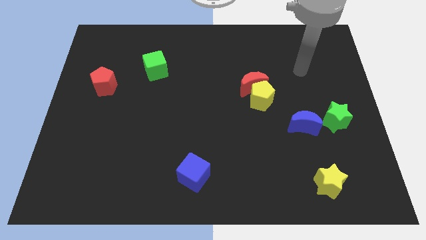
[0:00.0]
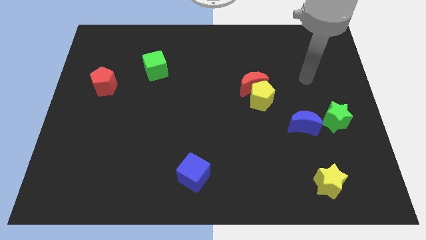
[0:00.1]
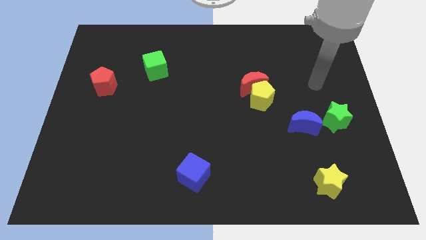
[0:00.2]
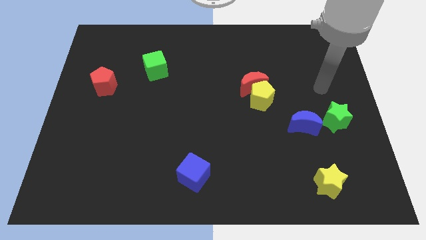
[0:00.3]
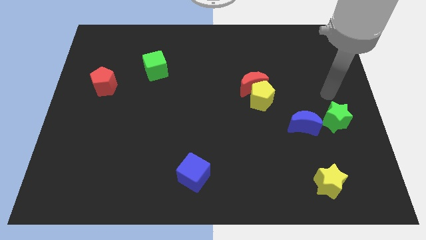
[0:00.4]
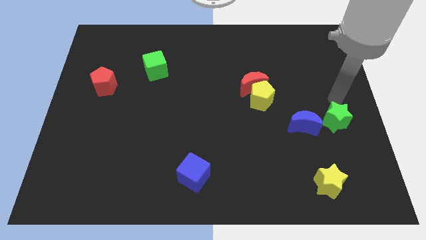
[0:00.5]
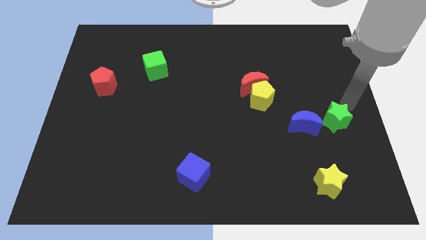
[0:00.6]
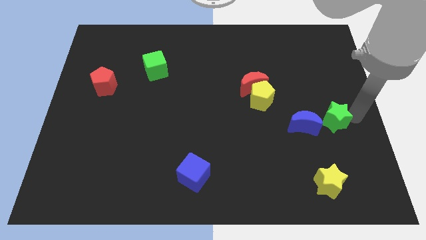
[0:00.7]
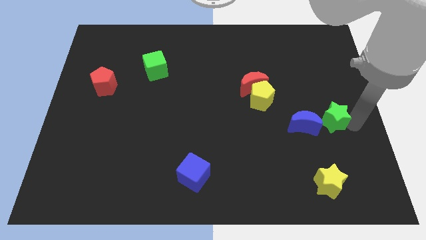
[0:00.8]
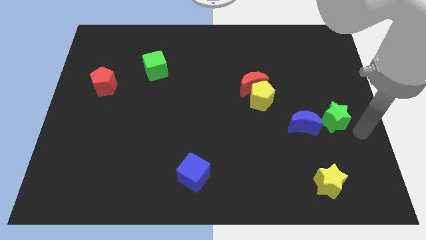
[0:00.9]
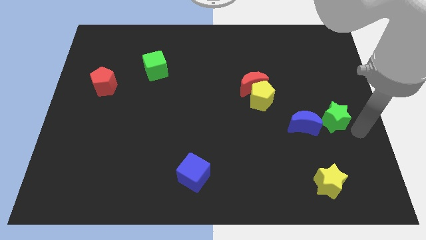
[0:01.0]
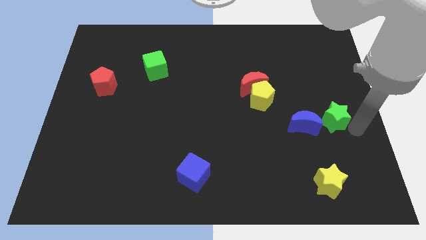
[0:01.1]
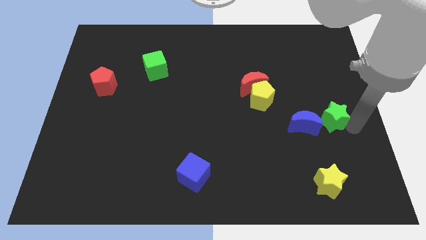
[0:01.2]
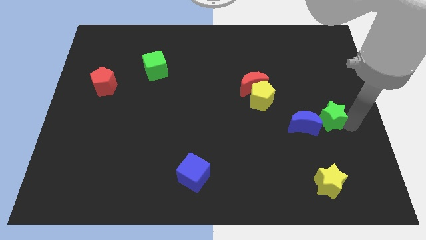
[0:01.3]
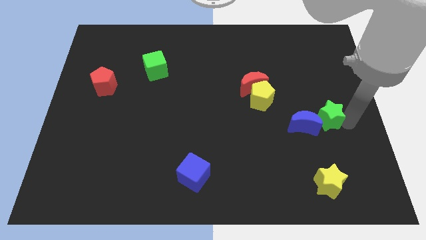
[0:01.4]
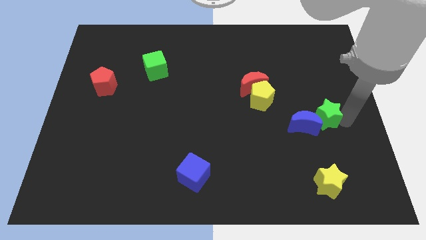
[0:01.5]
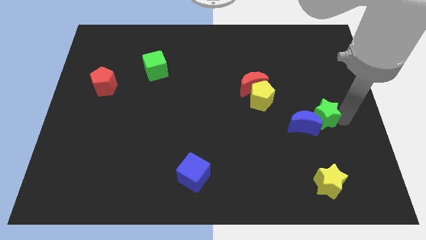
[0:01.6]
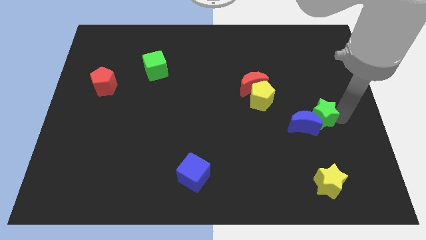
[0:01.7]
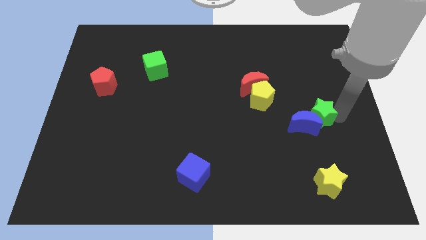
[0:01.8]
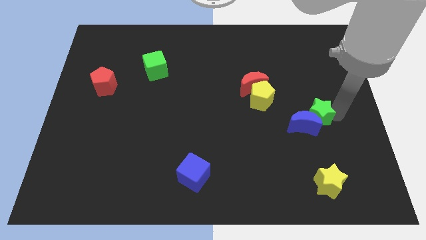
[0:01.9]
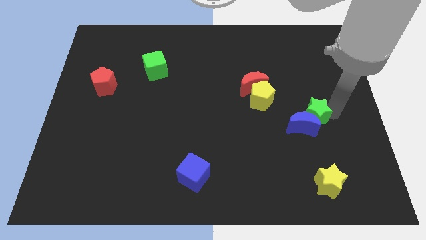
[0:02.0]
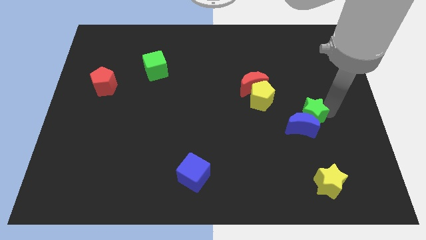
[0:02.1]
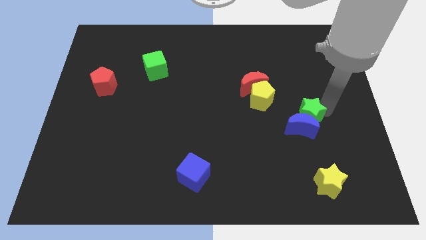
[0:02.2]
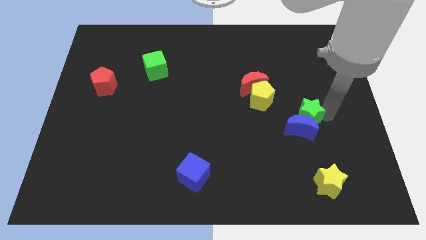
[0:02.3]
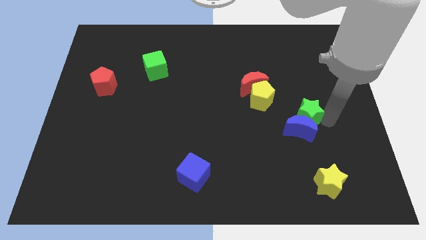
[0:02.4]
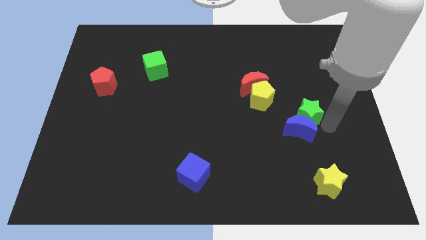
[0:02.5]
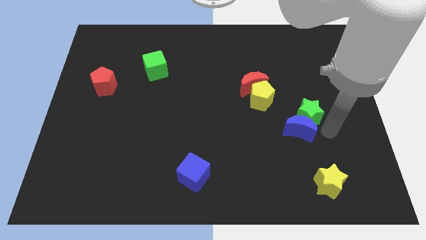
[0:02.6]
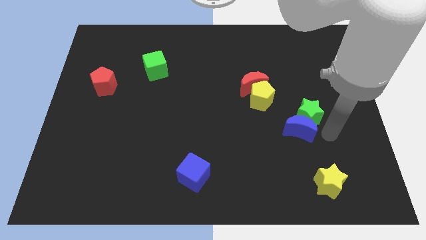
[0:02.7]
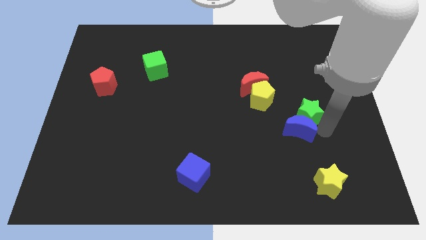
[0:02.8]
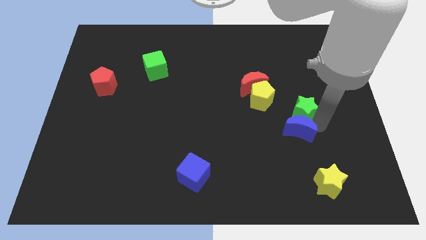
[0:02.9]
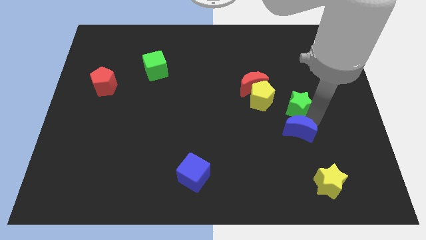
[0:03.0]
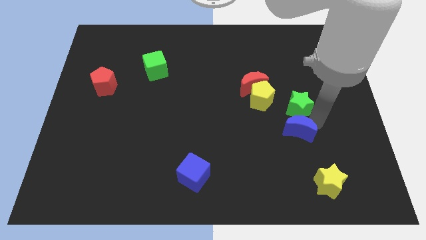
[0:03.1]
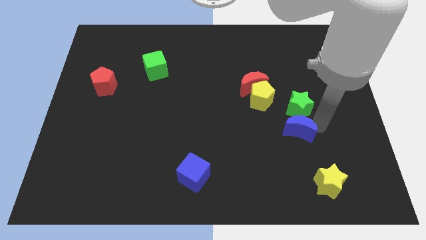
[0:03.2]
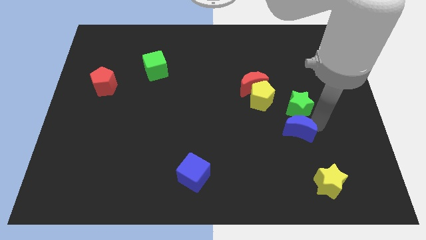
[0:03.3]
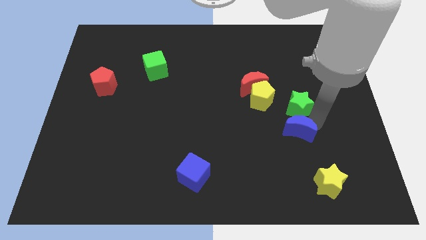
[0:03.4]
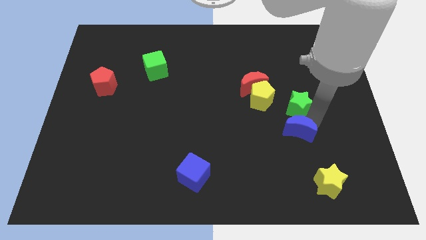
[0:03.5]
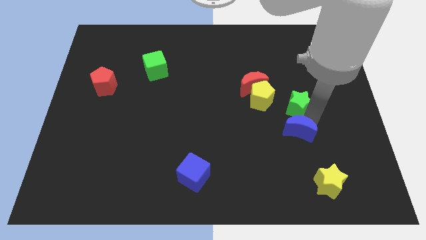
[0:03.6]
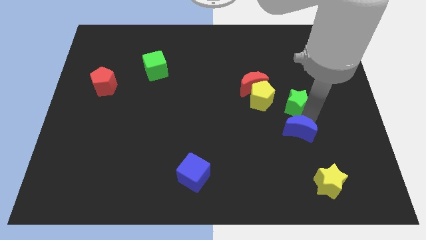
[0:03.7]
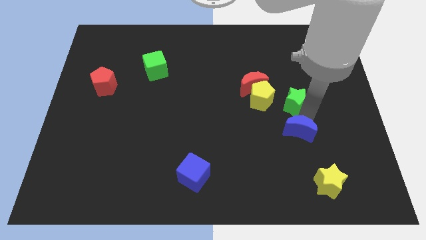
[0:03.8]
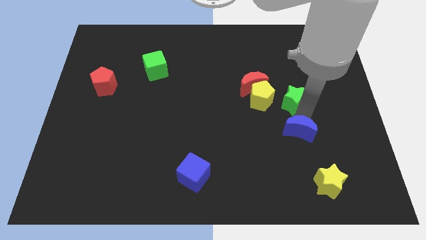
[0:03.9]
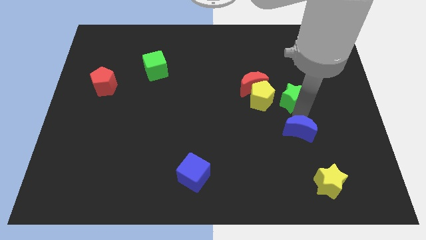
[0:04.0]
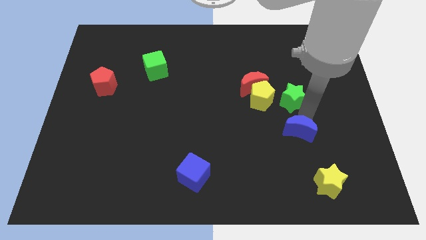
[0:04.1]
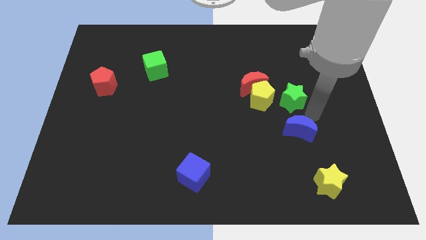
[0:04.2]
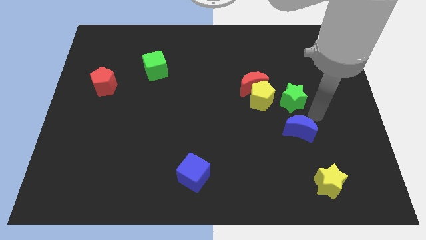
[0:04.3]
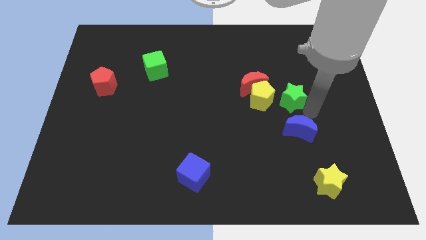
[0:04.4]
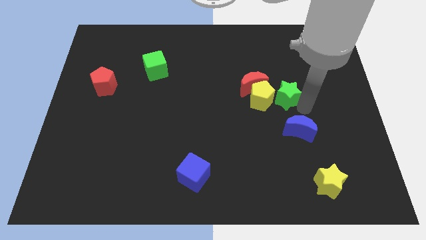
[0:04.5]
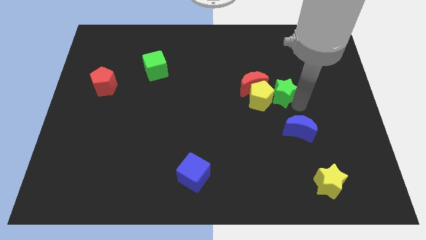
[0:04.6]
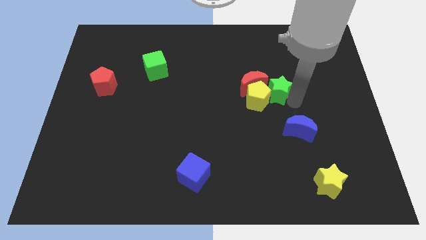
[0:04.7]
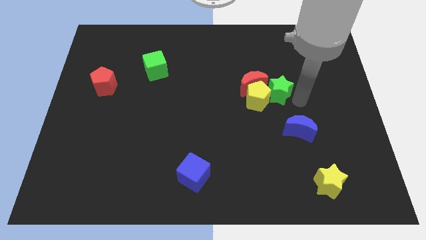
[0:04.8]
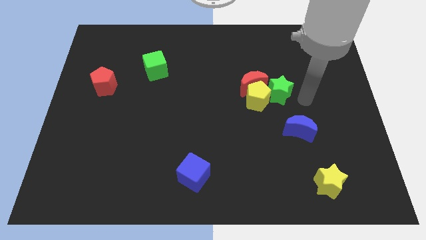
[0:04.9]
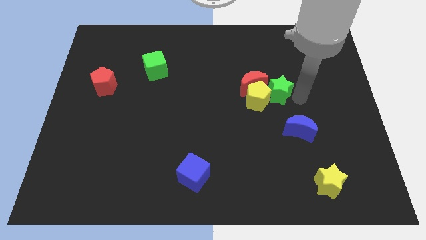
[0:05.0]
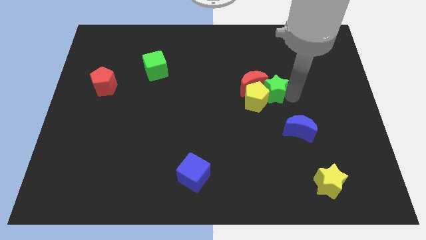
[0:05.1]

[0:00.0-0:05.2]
slide the green star close to the red moon

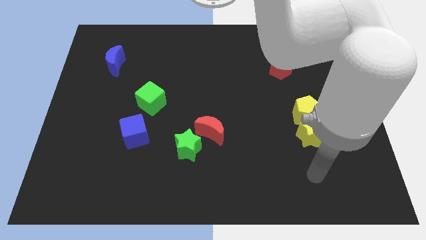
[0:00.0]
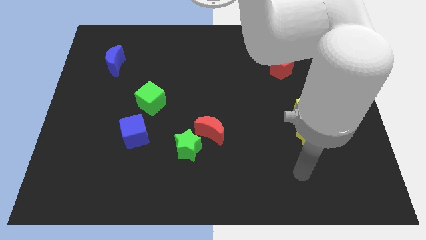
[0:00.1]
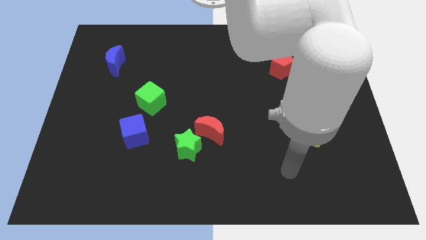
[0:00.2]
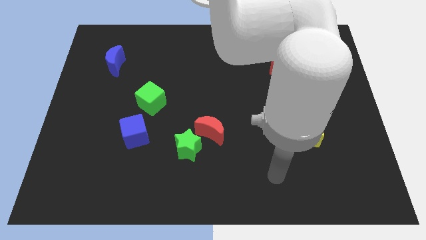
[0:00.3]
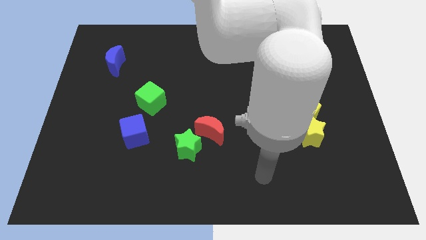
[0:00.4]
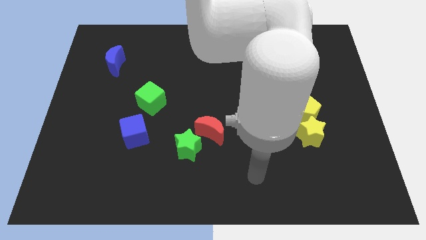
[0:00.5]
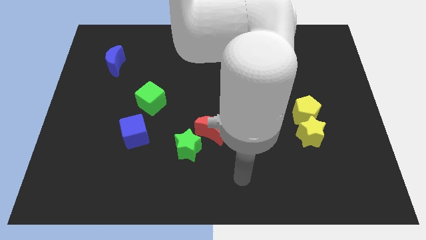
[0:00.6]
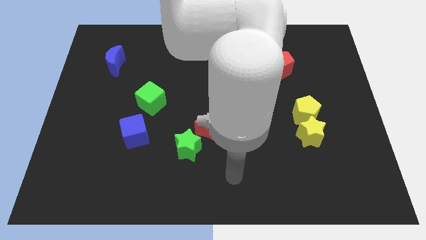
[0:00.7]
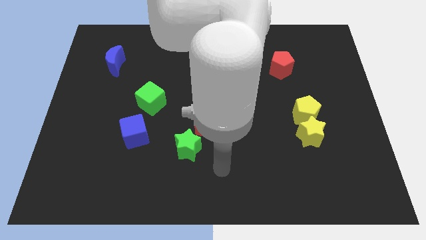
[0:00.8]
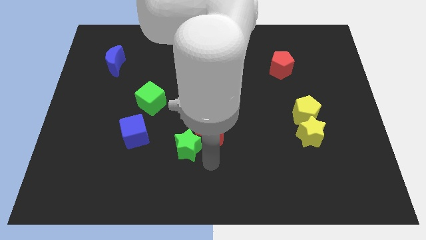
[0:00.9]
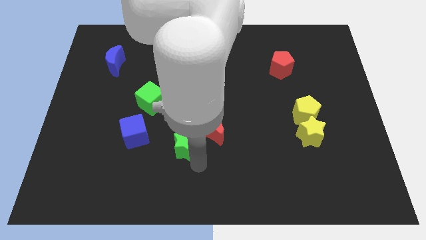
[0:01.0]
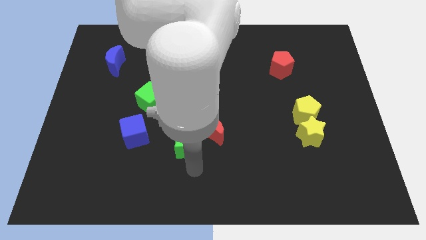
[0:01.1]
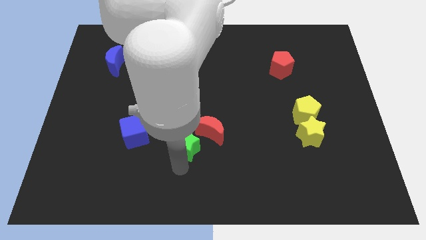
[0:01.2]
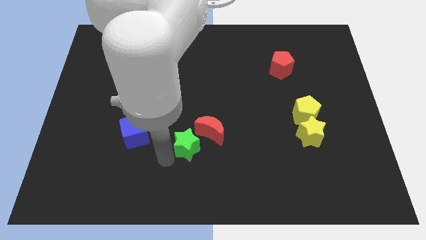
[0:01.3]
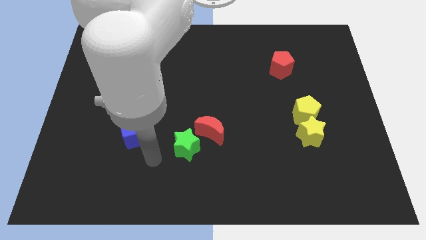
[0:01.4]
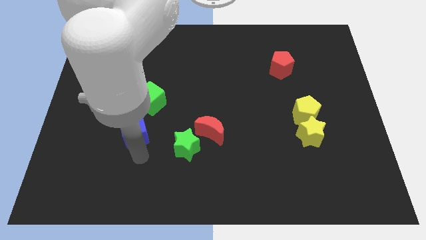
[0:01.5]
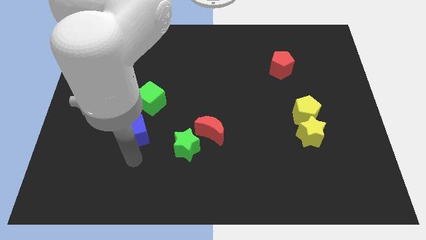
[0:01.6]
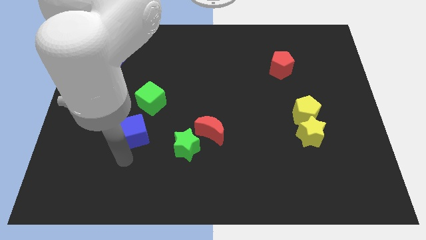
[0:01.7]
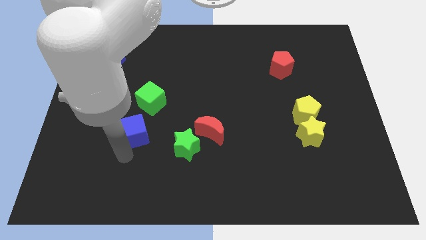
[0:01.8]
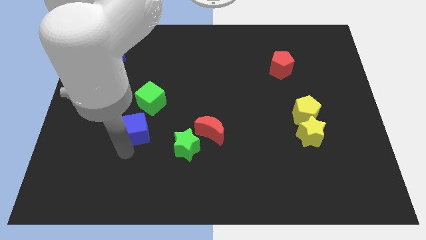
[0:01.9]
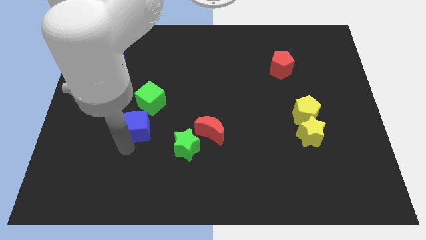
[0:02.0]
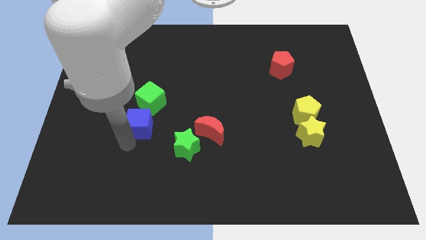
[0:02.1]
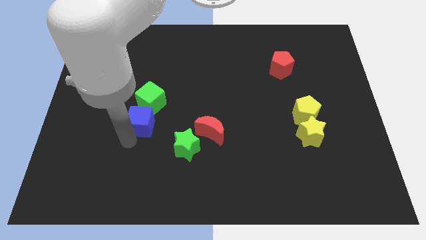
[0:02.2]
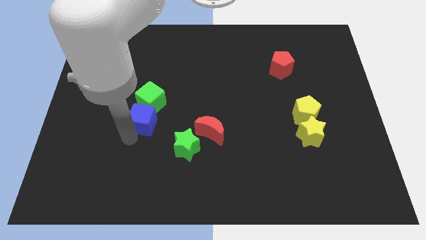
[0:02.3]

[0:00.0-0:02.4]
push the blue cube towards the green cube
